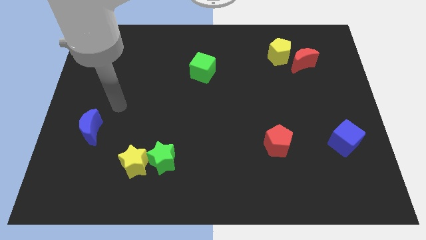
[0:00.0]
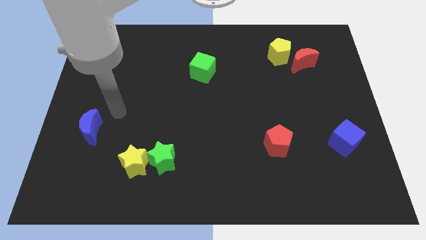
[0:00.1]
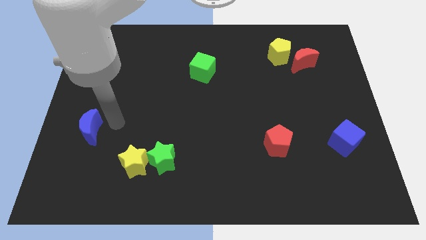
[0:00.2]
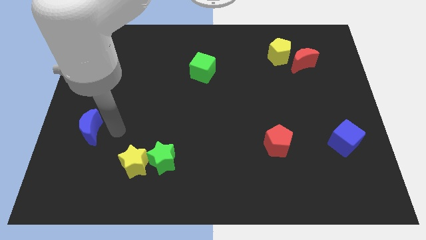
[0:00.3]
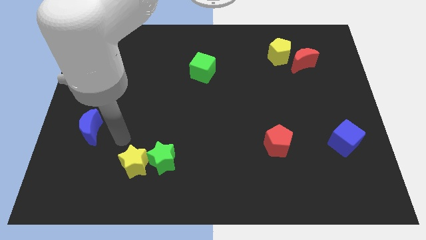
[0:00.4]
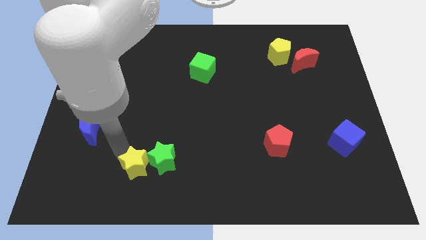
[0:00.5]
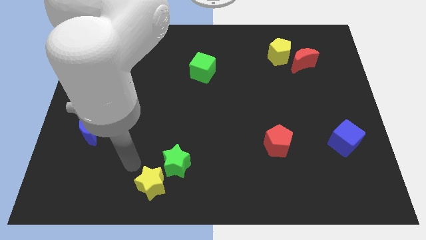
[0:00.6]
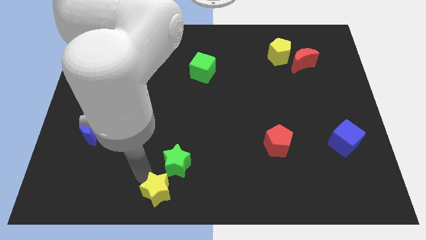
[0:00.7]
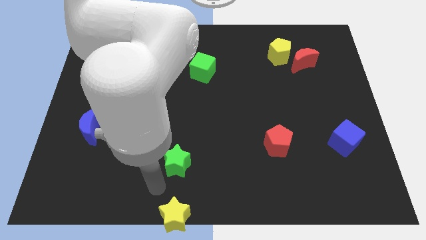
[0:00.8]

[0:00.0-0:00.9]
pull the green star apart from the yellow star

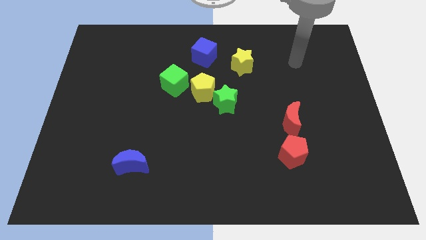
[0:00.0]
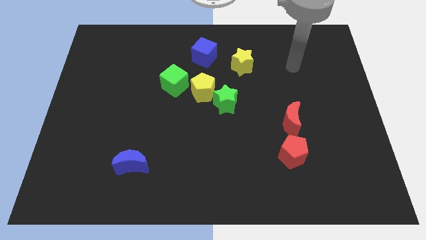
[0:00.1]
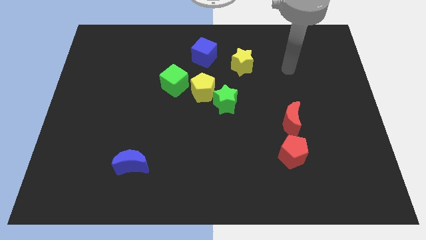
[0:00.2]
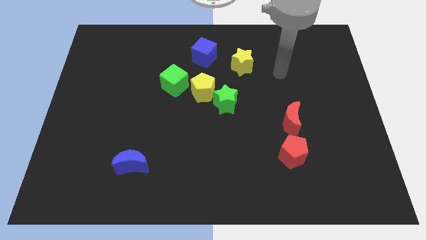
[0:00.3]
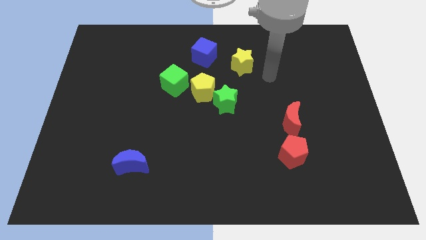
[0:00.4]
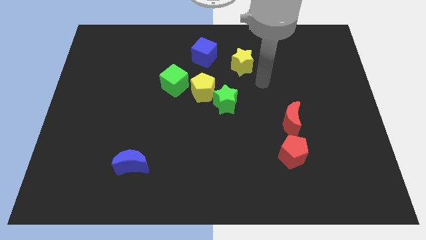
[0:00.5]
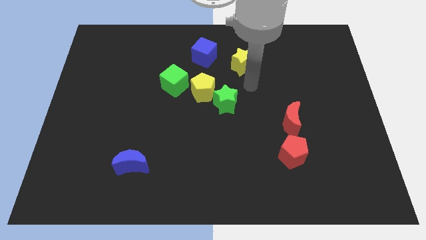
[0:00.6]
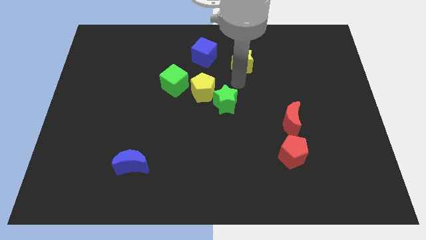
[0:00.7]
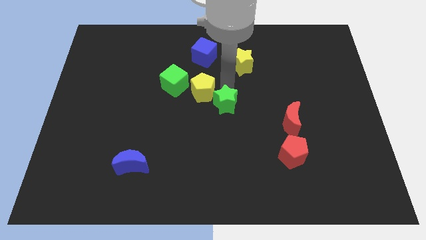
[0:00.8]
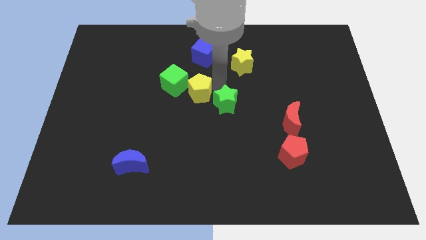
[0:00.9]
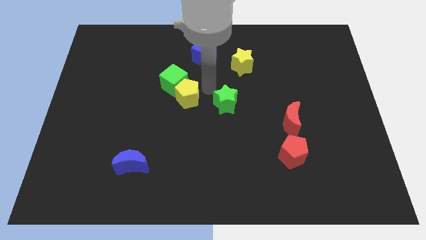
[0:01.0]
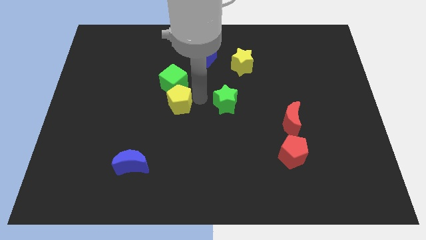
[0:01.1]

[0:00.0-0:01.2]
move the green star away from the yellow pentagon

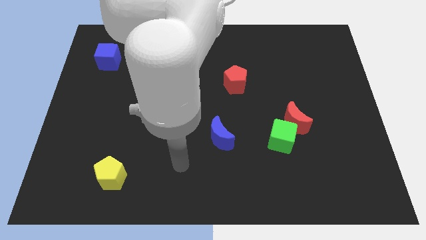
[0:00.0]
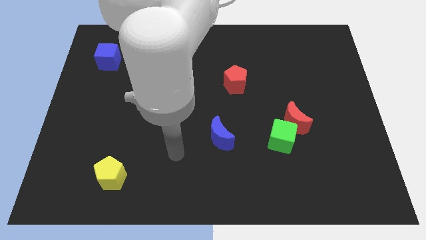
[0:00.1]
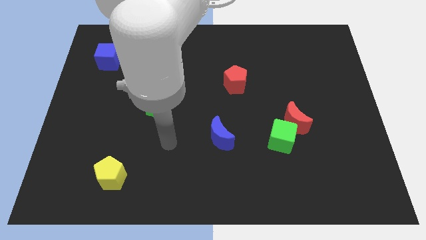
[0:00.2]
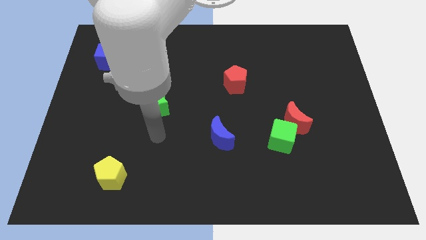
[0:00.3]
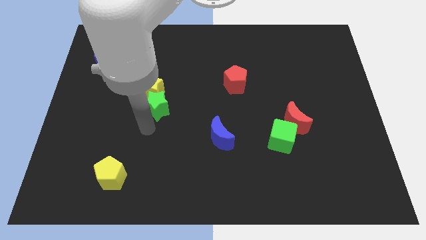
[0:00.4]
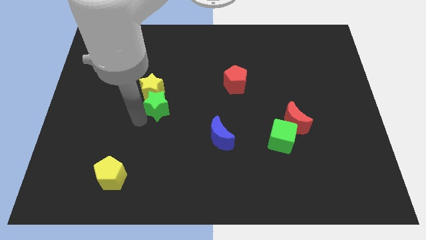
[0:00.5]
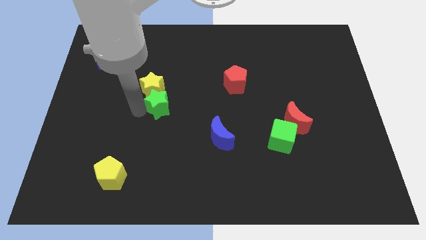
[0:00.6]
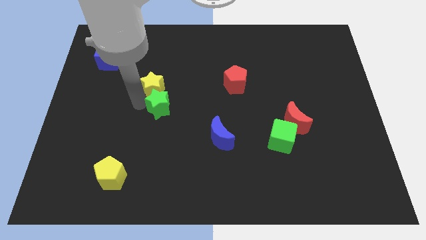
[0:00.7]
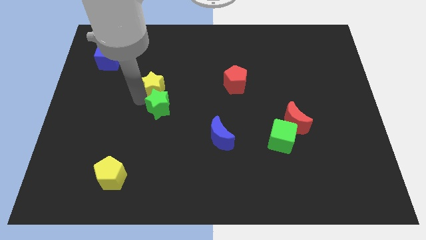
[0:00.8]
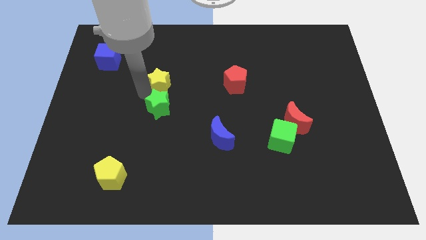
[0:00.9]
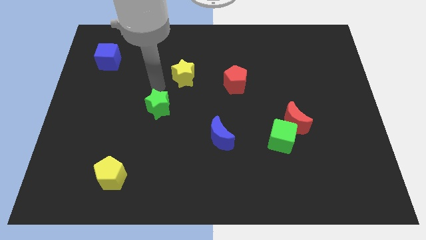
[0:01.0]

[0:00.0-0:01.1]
separate the green star from the yellow star

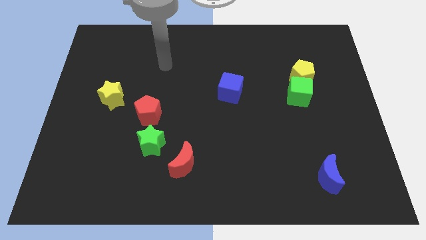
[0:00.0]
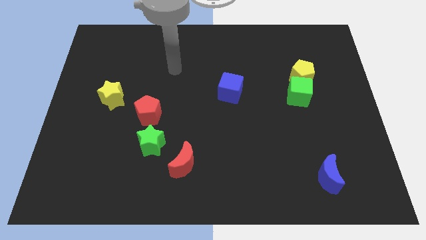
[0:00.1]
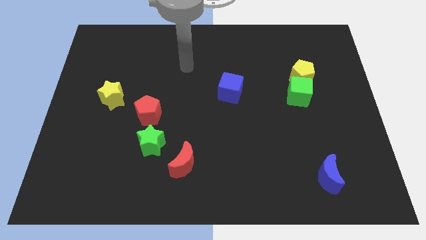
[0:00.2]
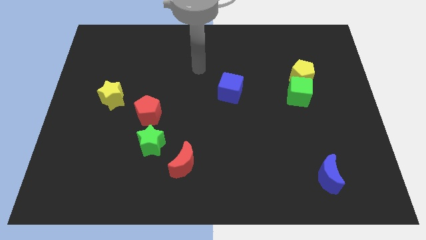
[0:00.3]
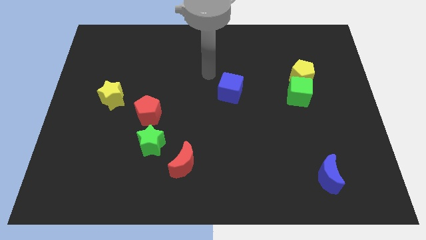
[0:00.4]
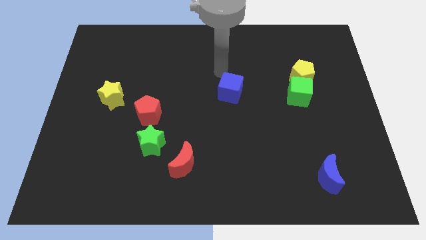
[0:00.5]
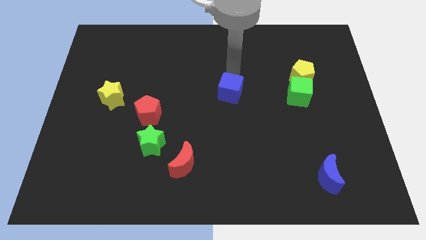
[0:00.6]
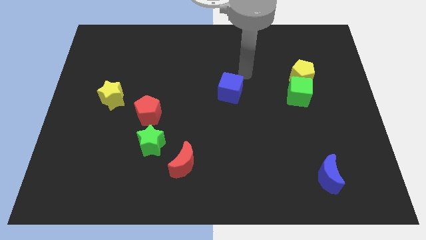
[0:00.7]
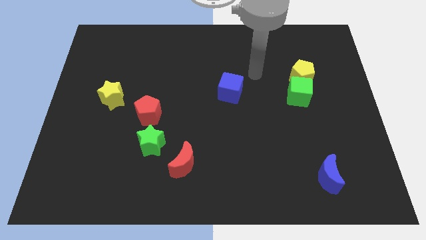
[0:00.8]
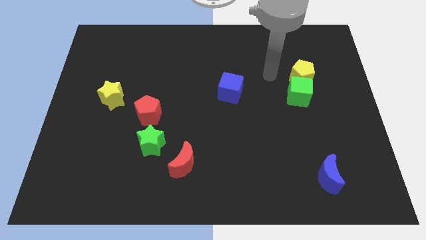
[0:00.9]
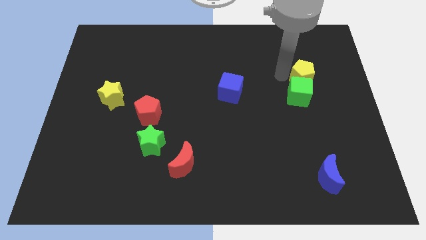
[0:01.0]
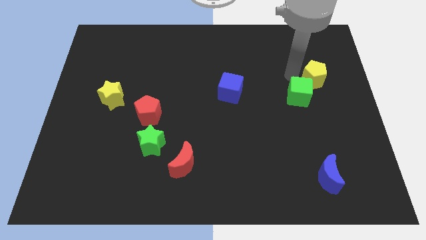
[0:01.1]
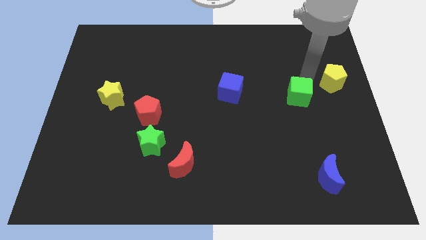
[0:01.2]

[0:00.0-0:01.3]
separate the green cube from the yellow pentagon

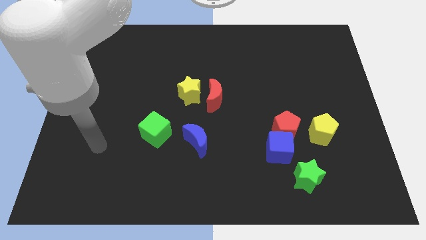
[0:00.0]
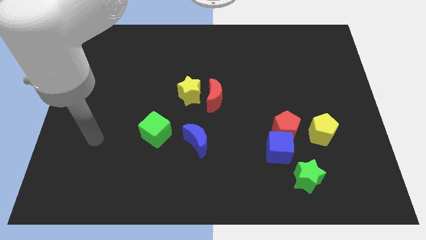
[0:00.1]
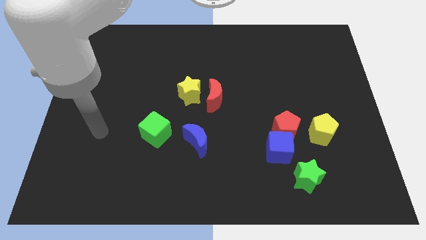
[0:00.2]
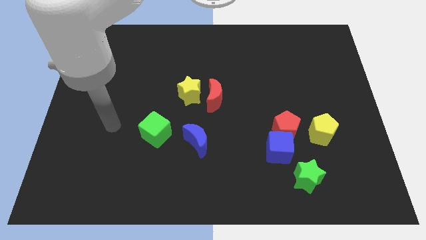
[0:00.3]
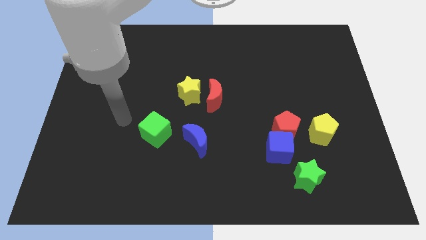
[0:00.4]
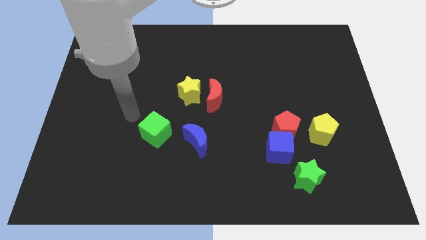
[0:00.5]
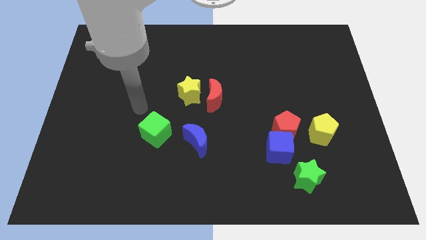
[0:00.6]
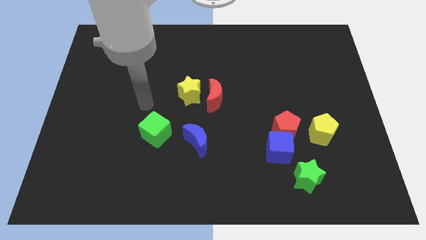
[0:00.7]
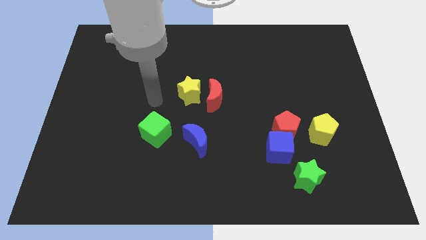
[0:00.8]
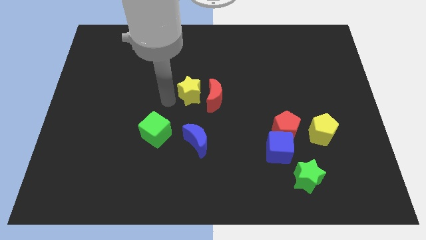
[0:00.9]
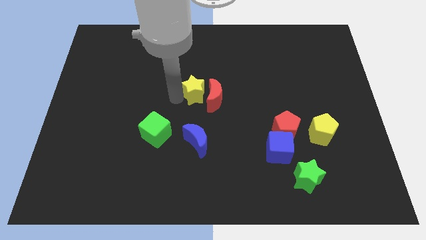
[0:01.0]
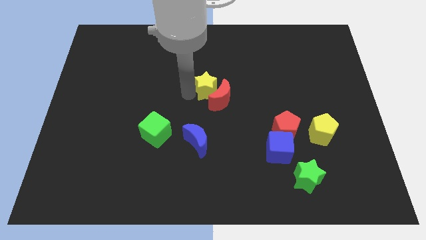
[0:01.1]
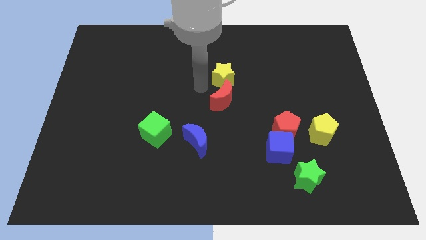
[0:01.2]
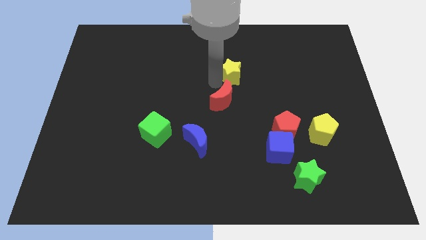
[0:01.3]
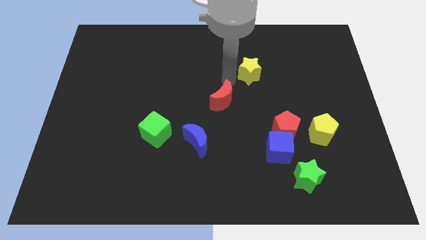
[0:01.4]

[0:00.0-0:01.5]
separate the red moon from the yellow star

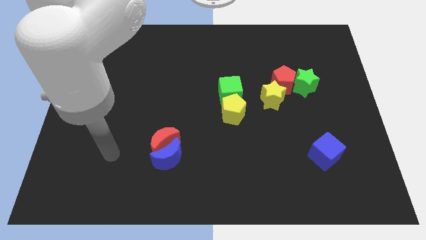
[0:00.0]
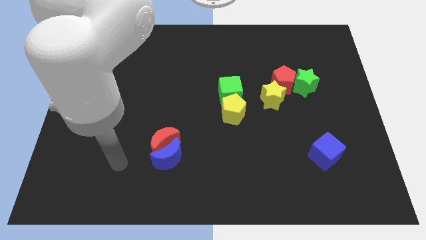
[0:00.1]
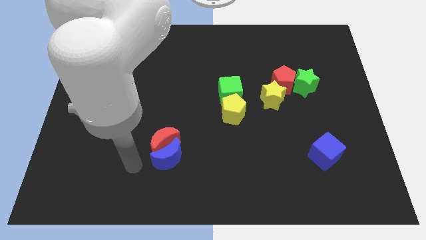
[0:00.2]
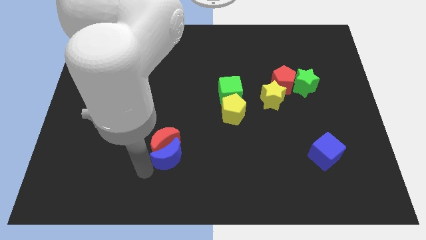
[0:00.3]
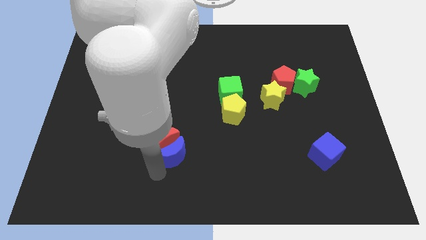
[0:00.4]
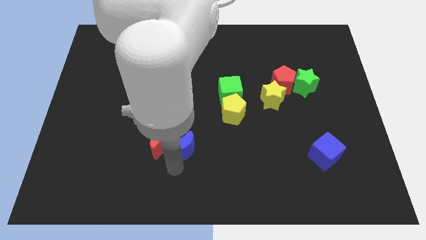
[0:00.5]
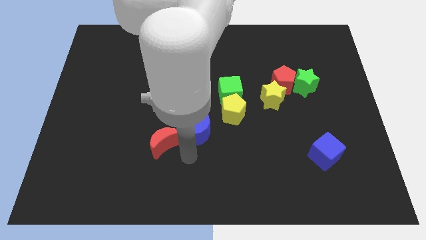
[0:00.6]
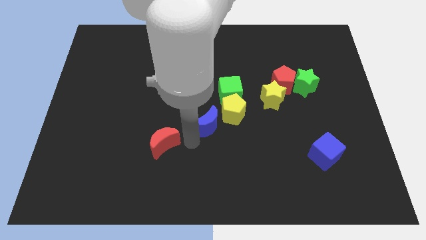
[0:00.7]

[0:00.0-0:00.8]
move the red moon away from the blue moon

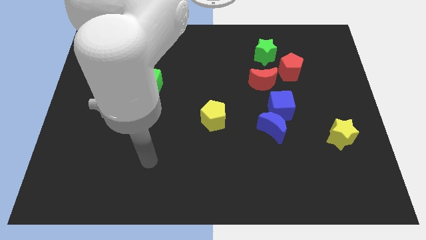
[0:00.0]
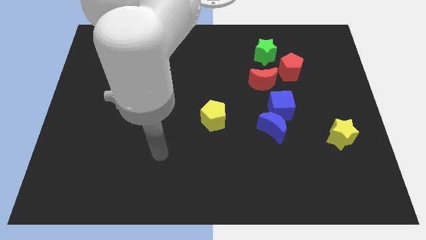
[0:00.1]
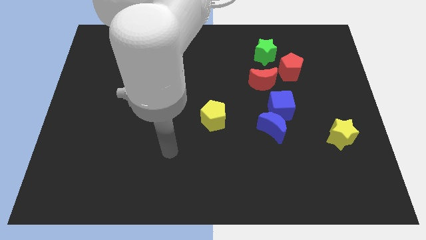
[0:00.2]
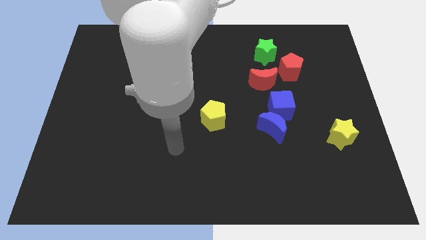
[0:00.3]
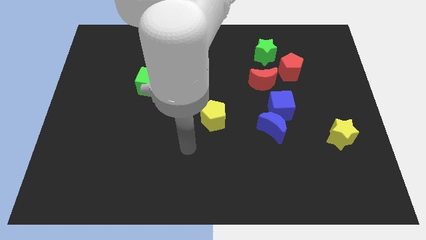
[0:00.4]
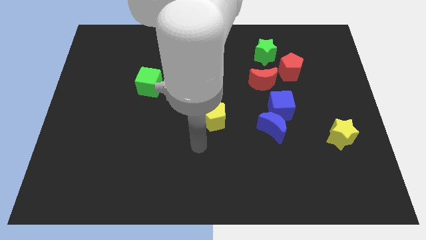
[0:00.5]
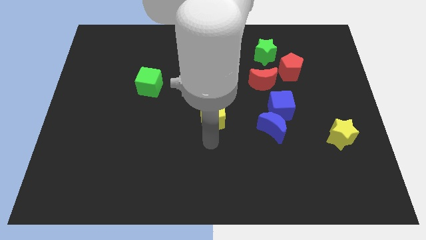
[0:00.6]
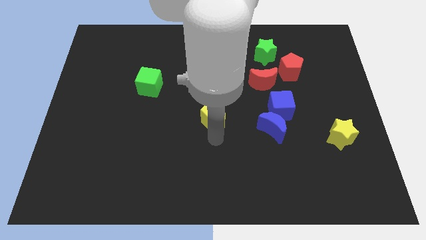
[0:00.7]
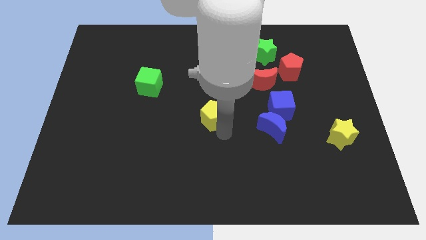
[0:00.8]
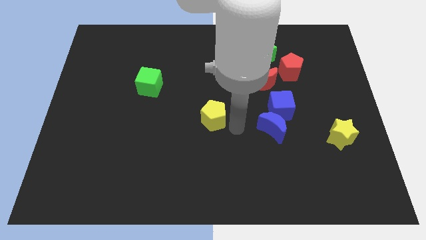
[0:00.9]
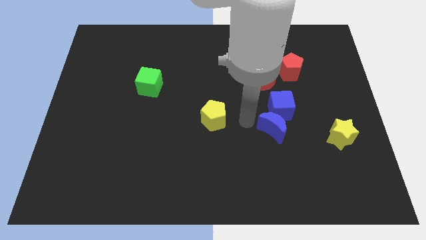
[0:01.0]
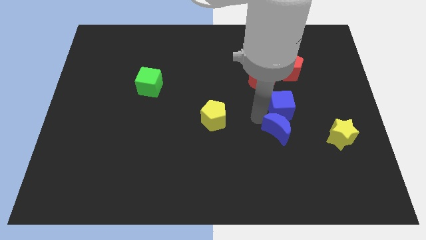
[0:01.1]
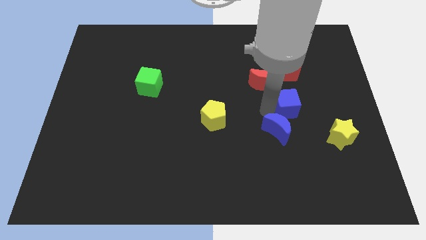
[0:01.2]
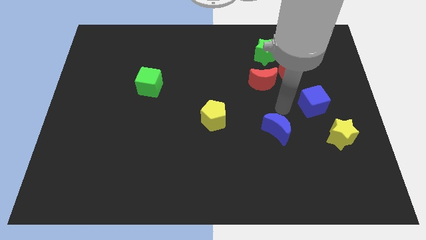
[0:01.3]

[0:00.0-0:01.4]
move the blue moon away from the blue cube

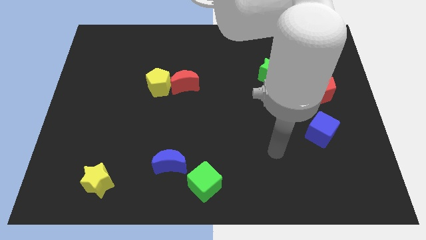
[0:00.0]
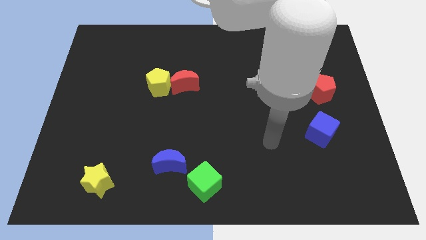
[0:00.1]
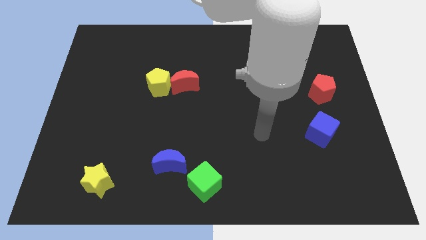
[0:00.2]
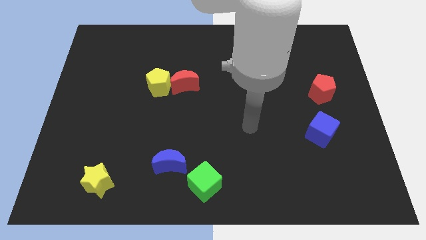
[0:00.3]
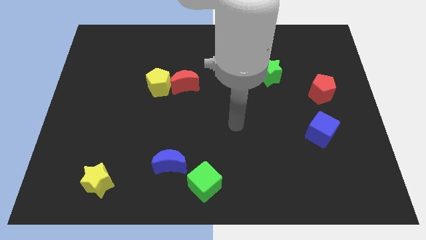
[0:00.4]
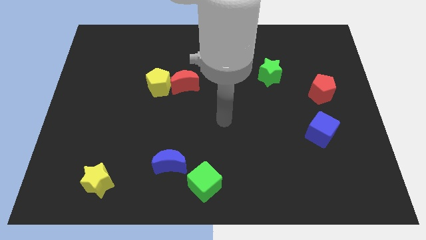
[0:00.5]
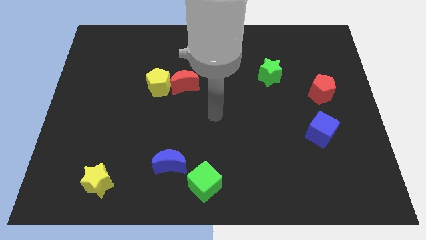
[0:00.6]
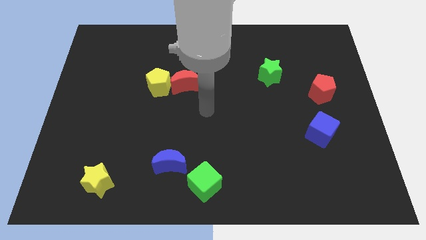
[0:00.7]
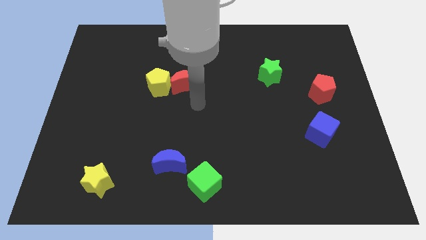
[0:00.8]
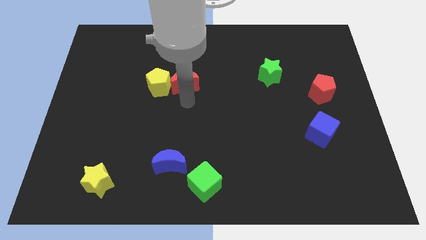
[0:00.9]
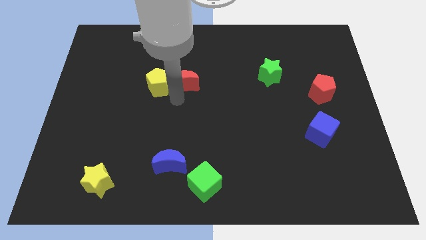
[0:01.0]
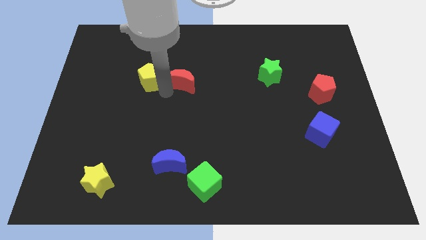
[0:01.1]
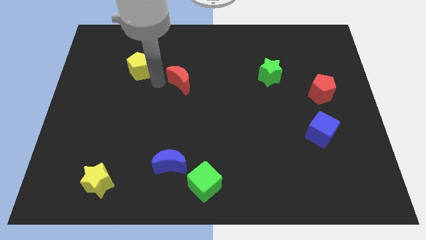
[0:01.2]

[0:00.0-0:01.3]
pull the red moon apart from the yellow pentagon
